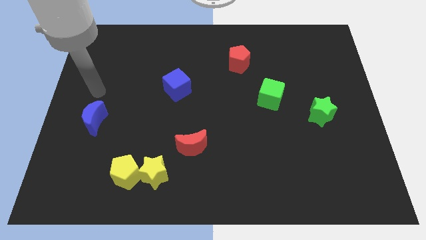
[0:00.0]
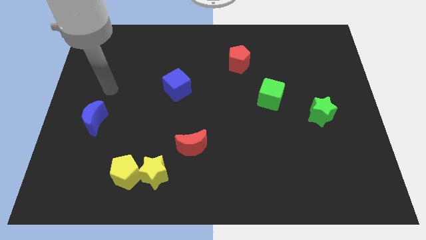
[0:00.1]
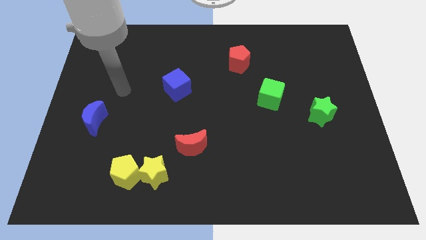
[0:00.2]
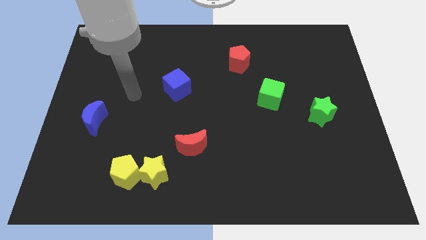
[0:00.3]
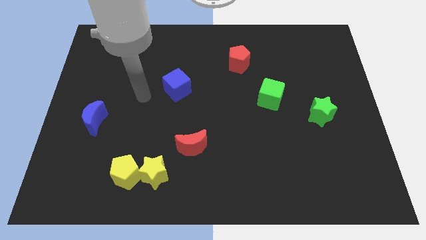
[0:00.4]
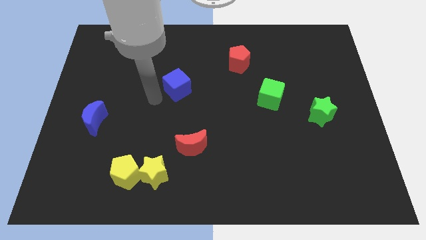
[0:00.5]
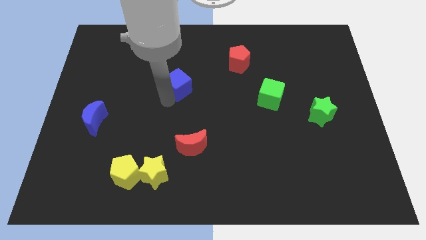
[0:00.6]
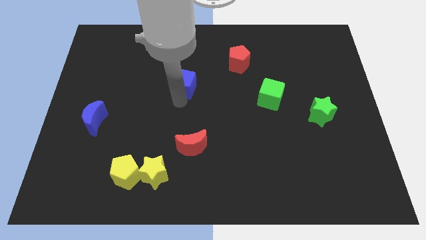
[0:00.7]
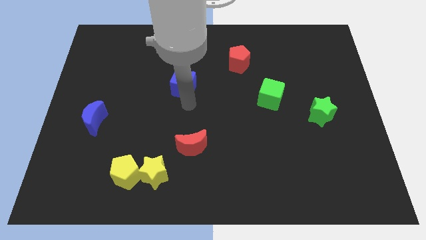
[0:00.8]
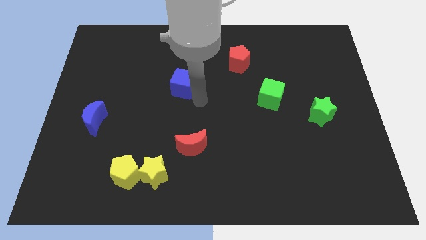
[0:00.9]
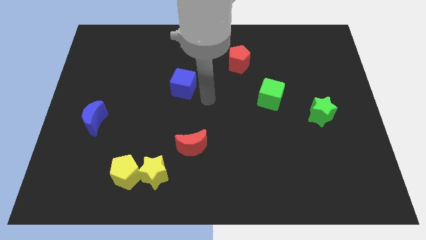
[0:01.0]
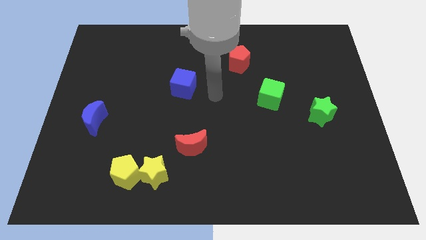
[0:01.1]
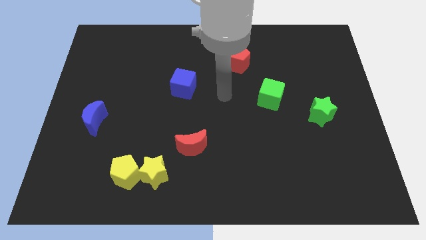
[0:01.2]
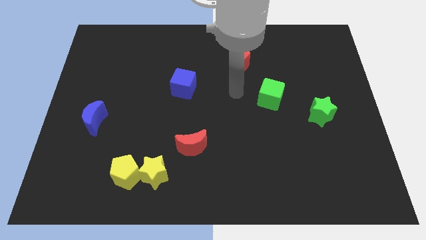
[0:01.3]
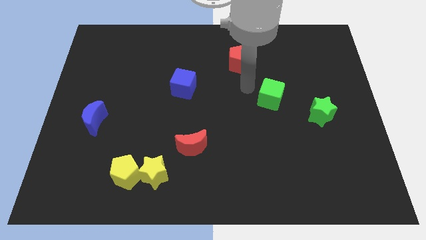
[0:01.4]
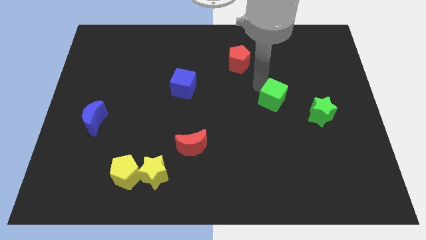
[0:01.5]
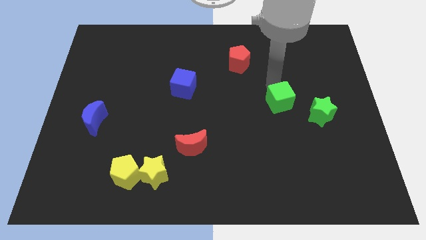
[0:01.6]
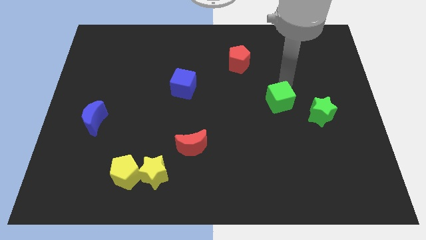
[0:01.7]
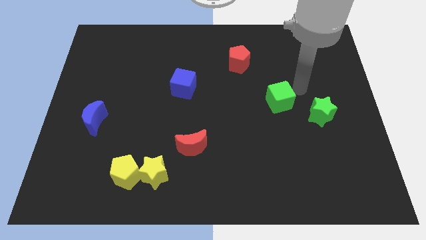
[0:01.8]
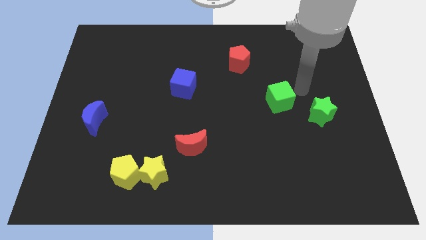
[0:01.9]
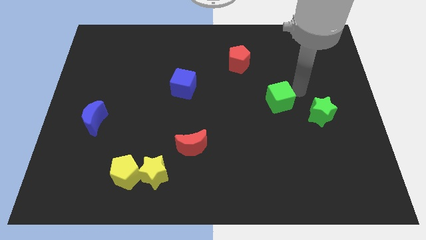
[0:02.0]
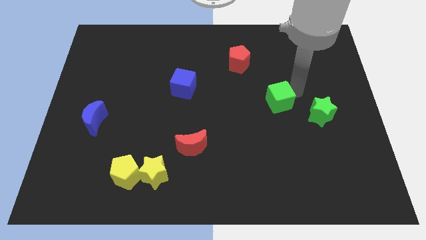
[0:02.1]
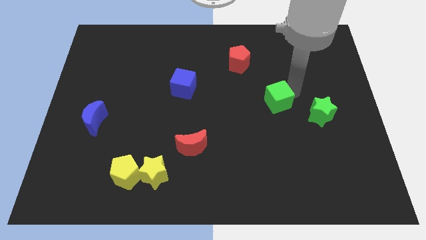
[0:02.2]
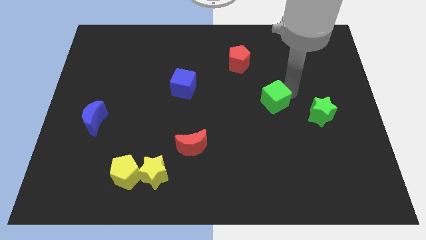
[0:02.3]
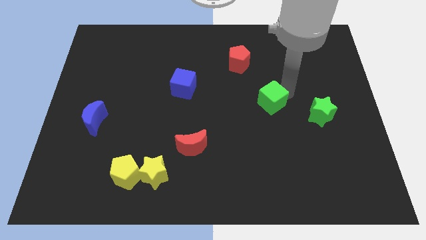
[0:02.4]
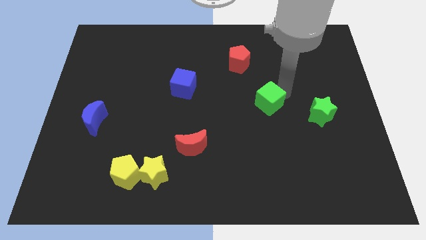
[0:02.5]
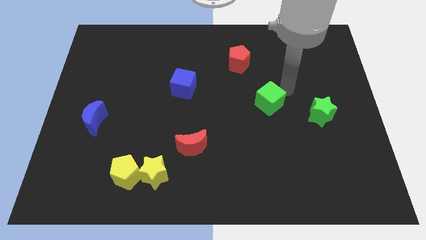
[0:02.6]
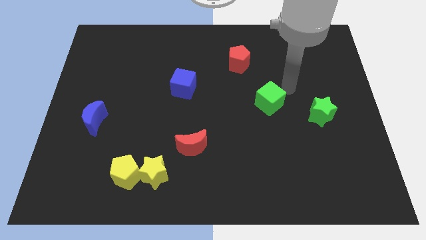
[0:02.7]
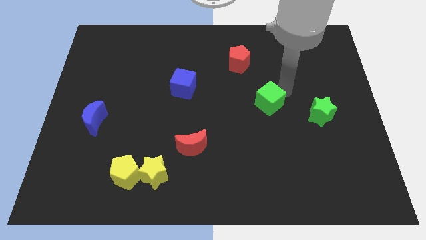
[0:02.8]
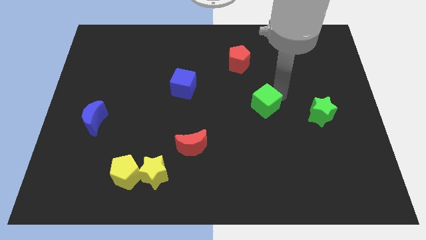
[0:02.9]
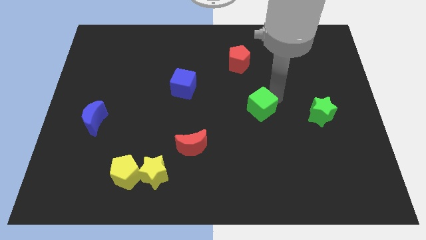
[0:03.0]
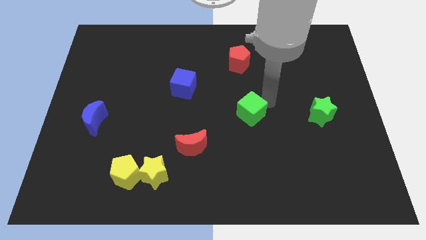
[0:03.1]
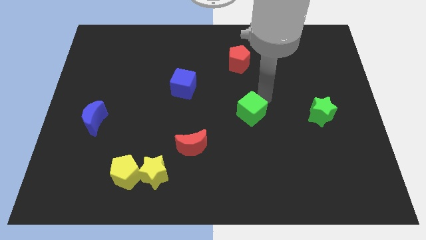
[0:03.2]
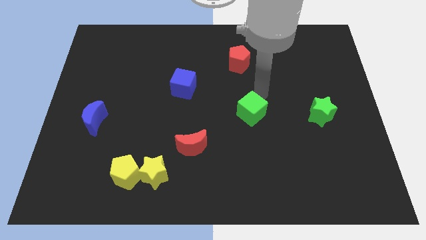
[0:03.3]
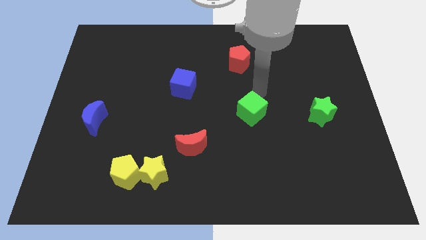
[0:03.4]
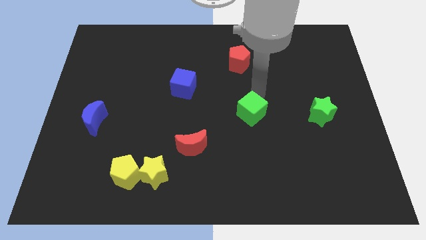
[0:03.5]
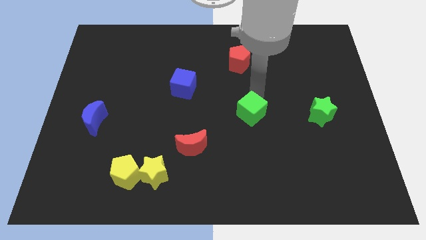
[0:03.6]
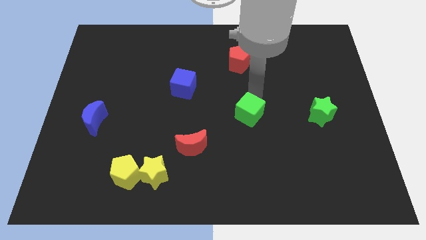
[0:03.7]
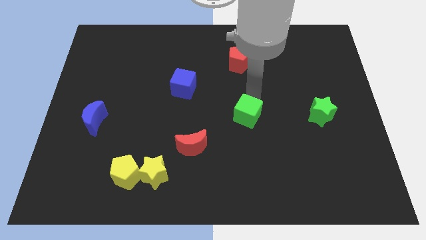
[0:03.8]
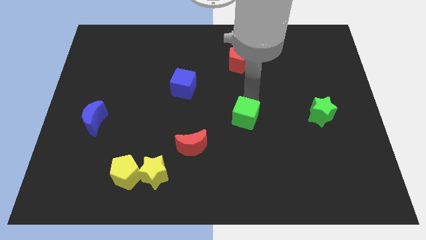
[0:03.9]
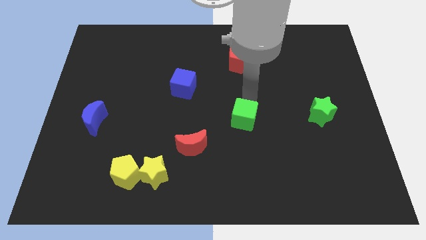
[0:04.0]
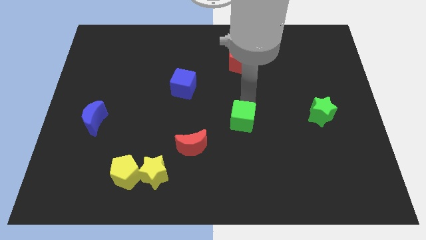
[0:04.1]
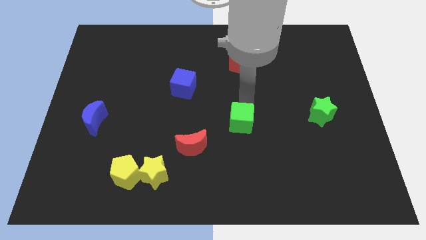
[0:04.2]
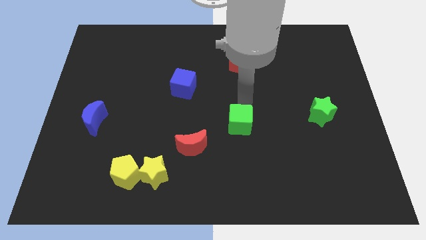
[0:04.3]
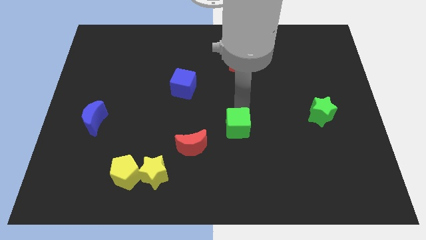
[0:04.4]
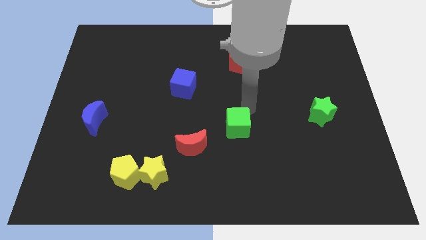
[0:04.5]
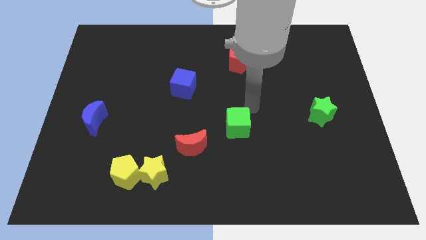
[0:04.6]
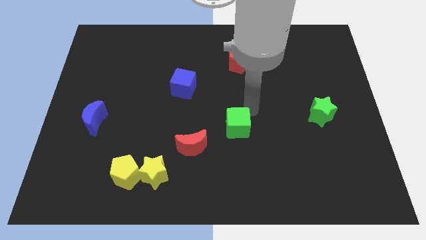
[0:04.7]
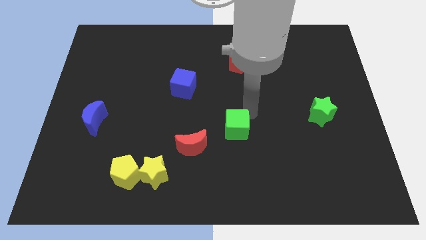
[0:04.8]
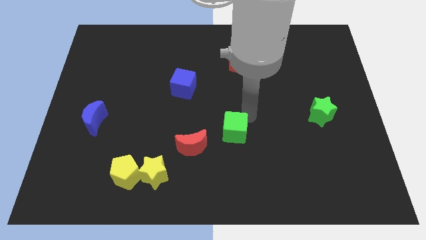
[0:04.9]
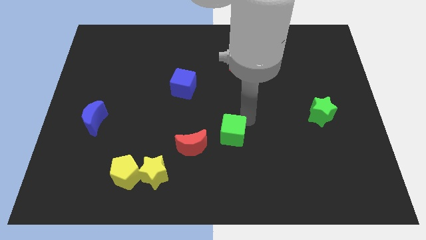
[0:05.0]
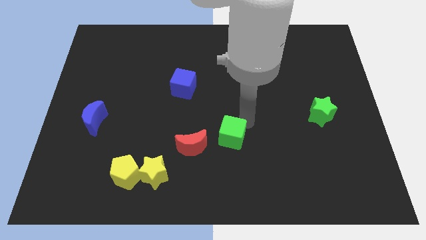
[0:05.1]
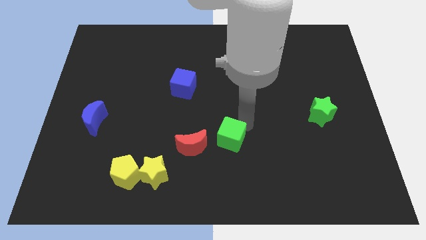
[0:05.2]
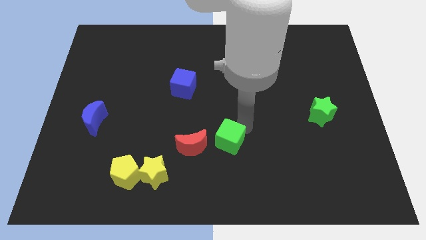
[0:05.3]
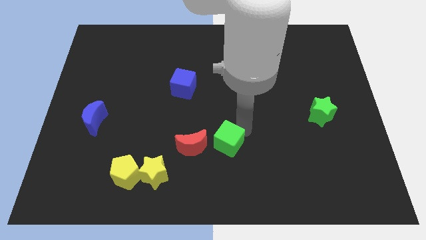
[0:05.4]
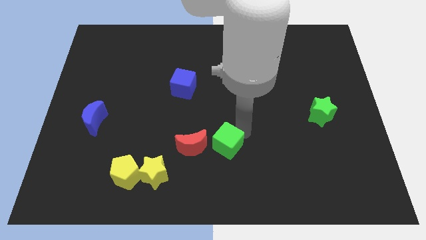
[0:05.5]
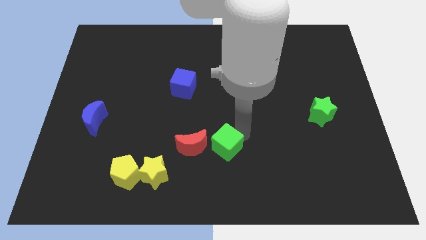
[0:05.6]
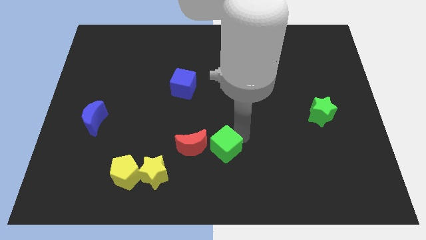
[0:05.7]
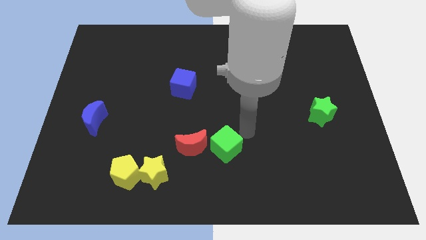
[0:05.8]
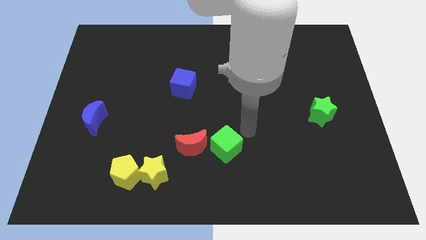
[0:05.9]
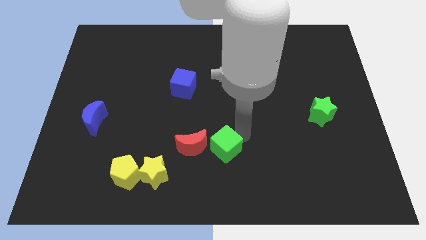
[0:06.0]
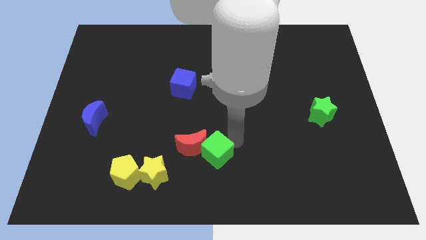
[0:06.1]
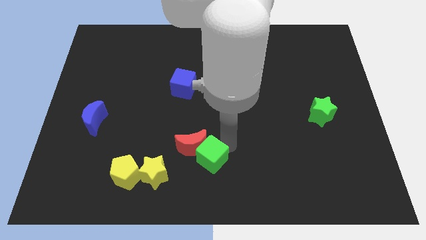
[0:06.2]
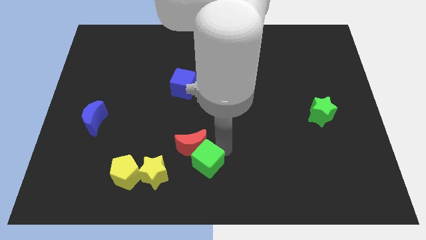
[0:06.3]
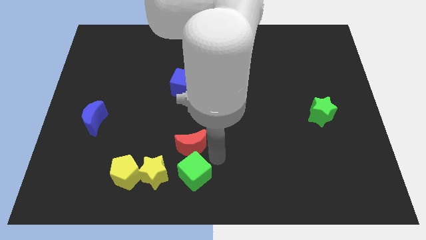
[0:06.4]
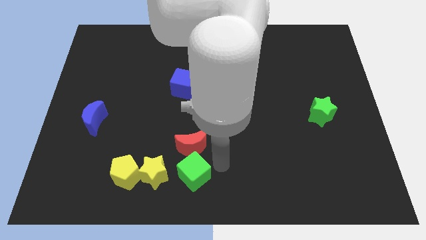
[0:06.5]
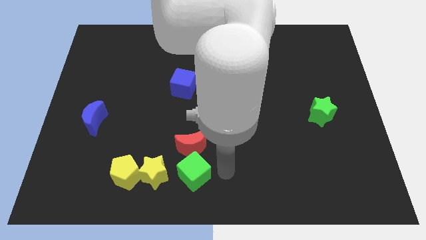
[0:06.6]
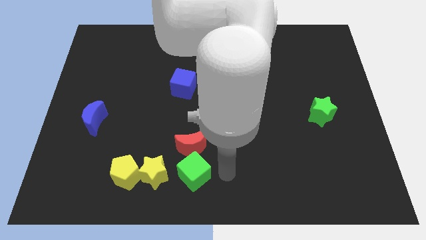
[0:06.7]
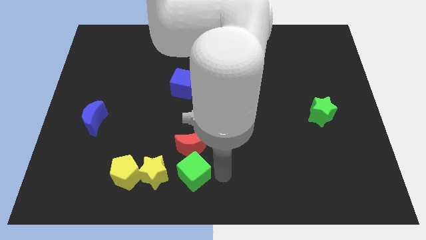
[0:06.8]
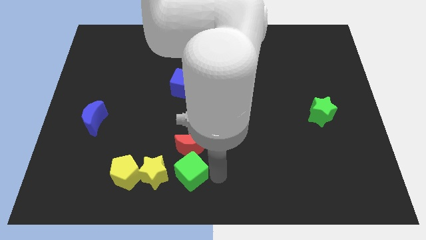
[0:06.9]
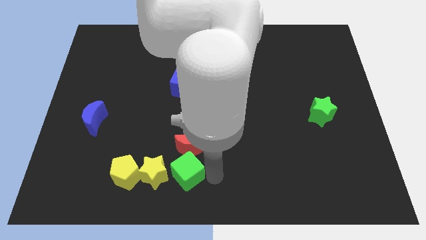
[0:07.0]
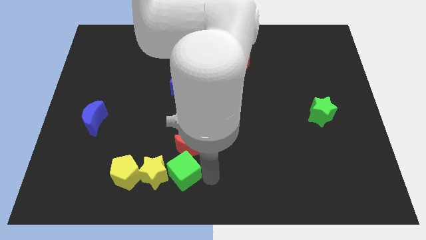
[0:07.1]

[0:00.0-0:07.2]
push the green cube to the yellow star
